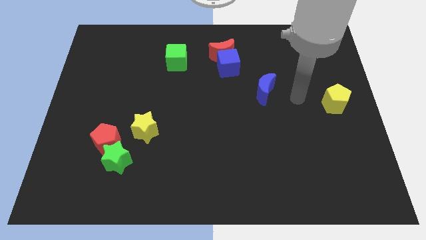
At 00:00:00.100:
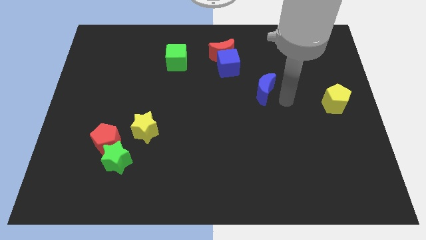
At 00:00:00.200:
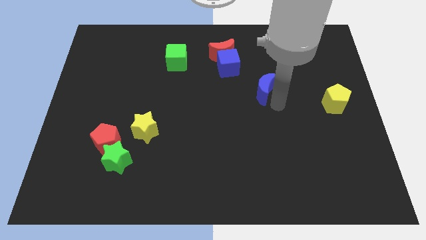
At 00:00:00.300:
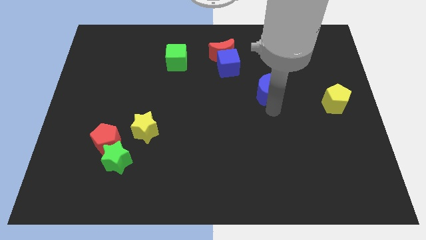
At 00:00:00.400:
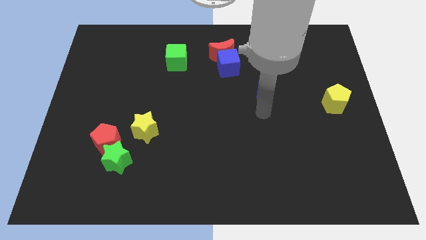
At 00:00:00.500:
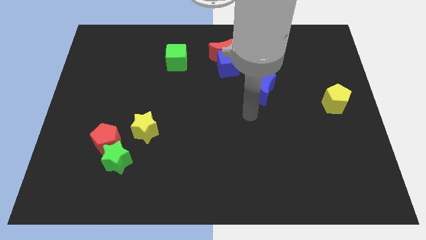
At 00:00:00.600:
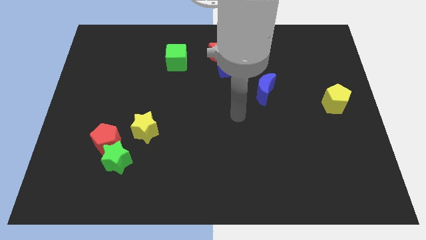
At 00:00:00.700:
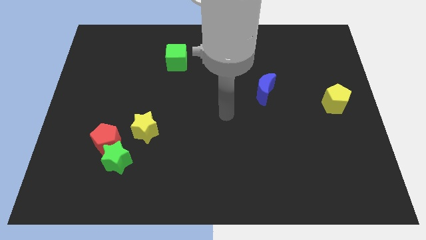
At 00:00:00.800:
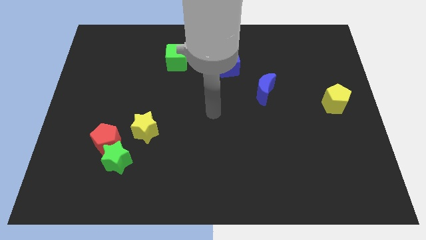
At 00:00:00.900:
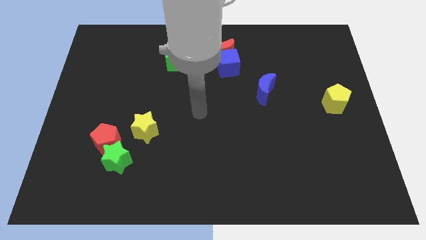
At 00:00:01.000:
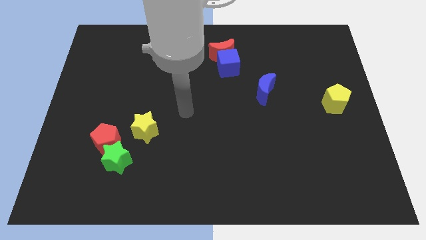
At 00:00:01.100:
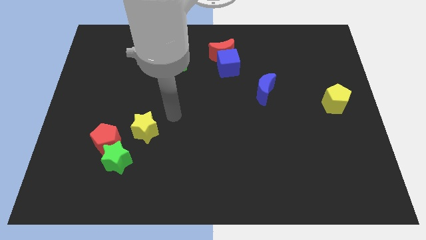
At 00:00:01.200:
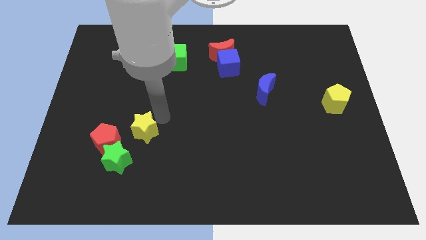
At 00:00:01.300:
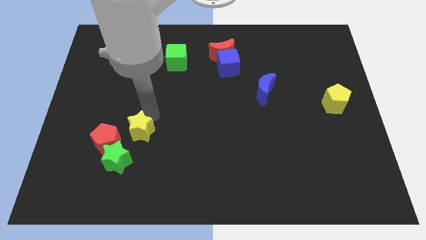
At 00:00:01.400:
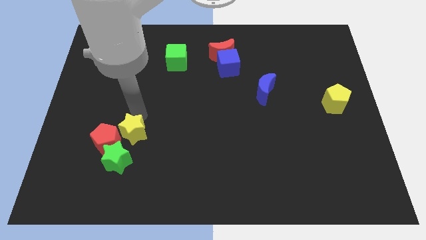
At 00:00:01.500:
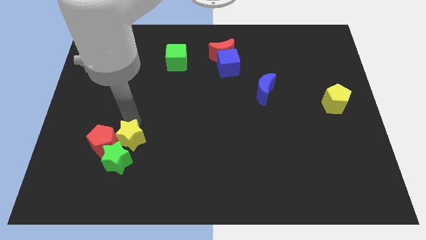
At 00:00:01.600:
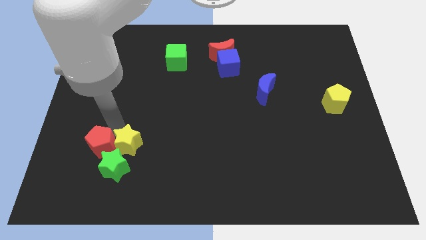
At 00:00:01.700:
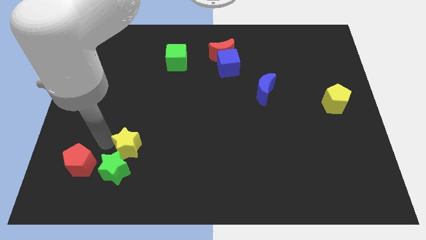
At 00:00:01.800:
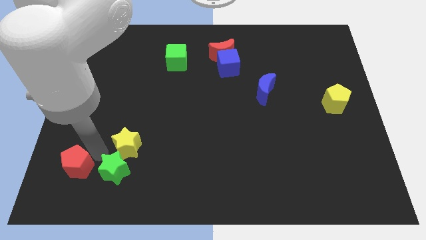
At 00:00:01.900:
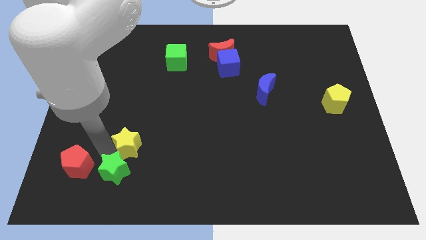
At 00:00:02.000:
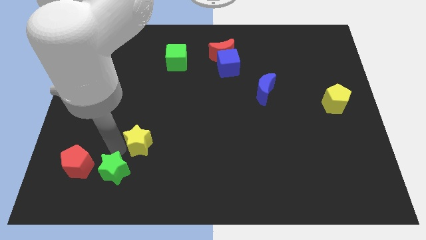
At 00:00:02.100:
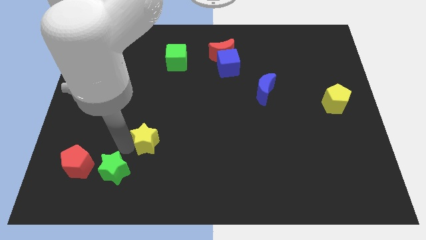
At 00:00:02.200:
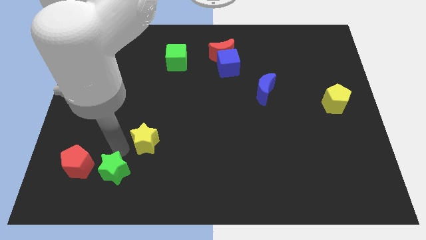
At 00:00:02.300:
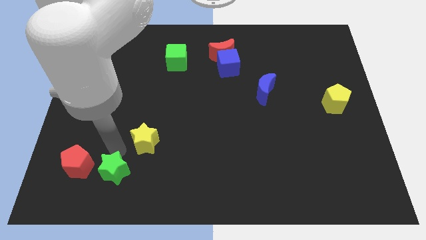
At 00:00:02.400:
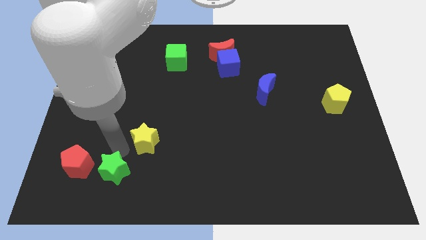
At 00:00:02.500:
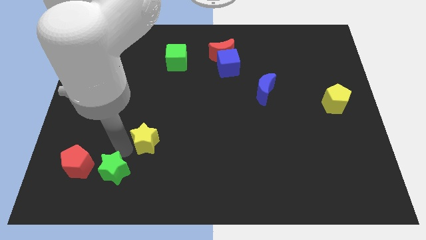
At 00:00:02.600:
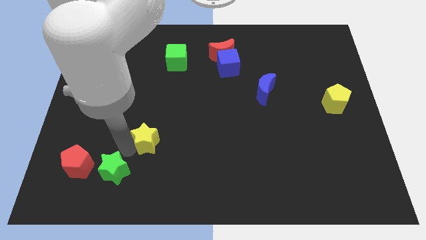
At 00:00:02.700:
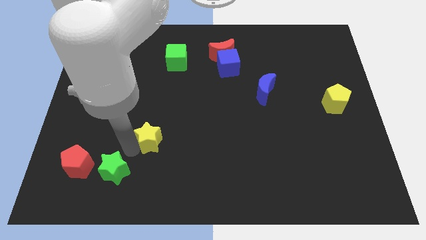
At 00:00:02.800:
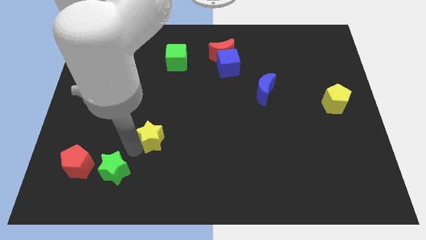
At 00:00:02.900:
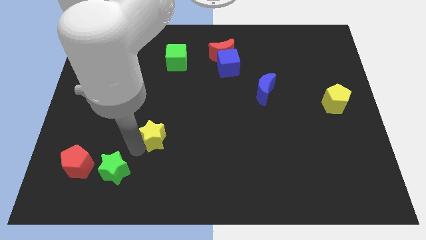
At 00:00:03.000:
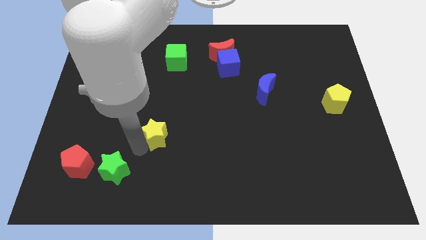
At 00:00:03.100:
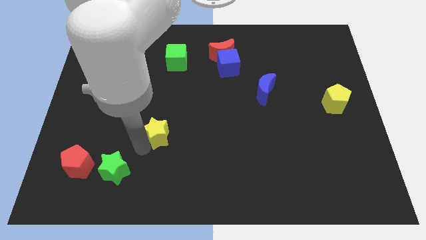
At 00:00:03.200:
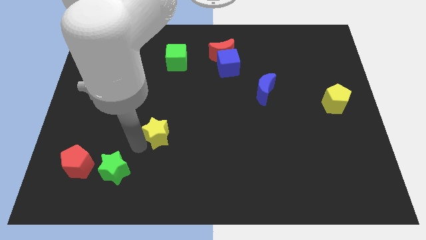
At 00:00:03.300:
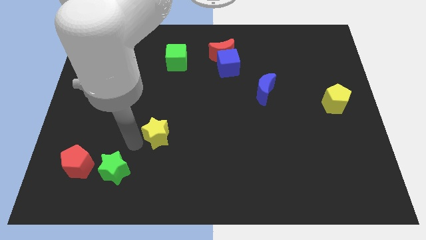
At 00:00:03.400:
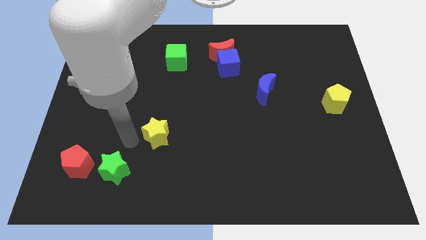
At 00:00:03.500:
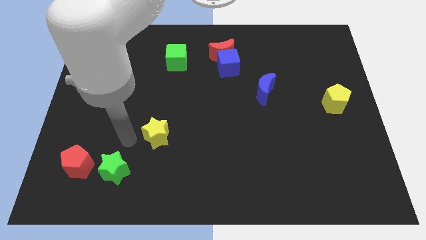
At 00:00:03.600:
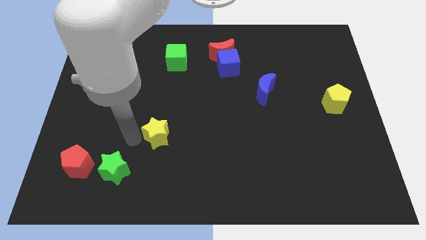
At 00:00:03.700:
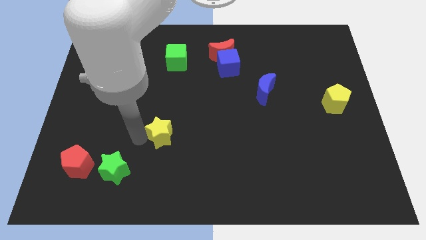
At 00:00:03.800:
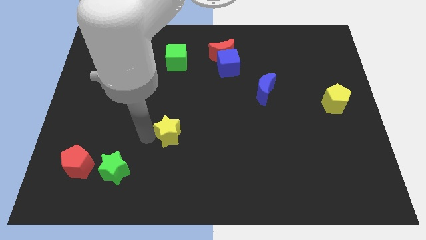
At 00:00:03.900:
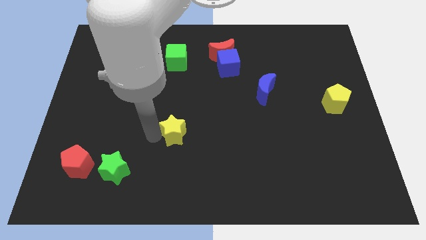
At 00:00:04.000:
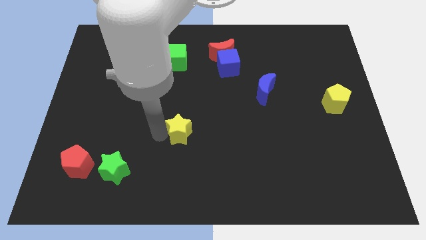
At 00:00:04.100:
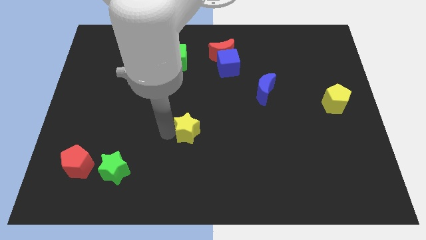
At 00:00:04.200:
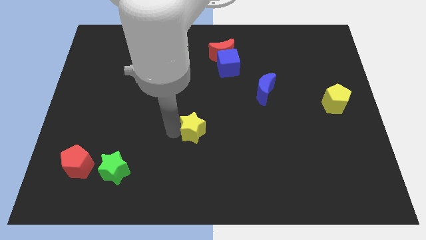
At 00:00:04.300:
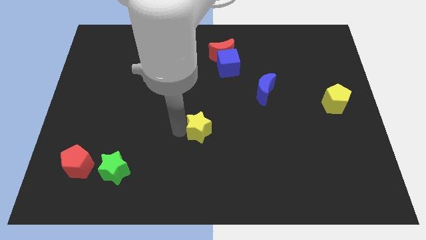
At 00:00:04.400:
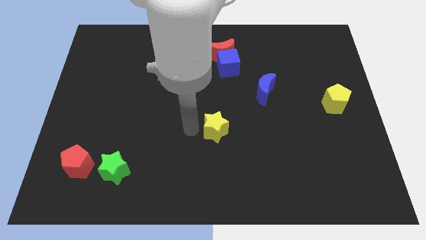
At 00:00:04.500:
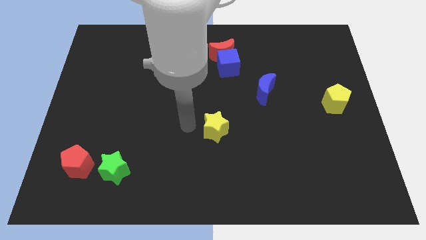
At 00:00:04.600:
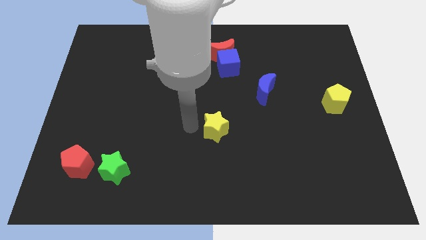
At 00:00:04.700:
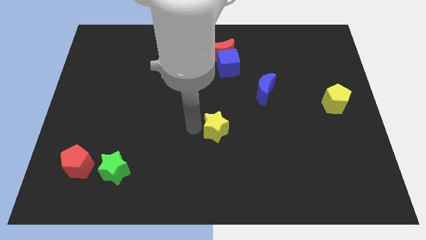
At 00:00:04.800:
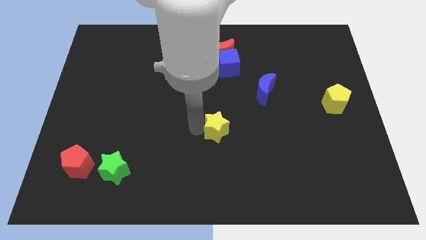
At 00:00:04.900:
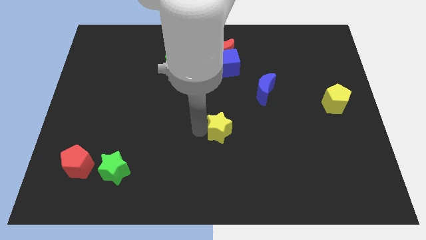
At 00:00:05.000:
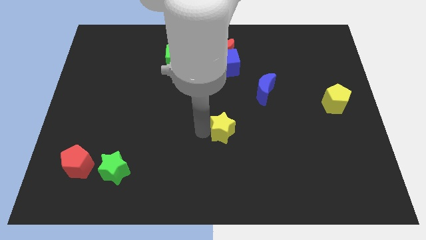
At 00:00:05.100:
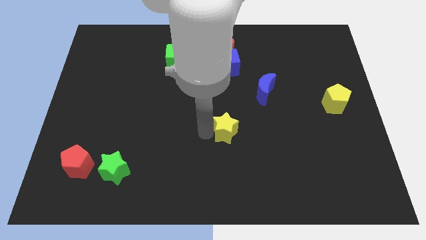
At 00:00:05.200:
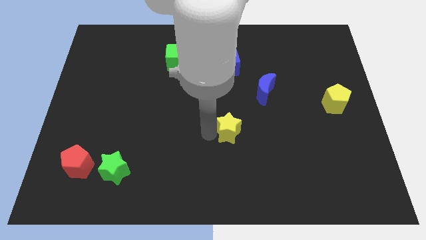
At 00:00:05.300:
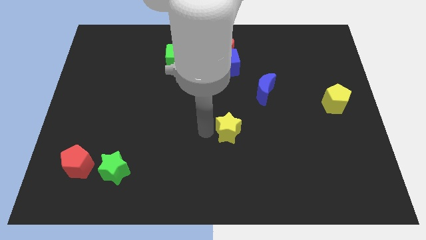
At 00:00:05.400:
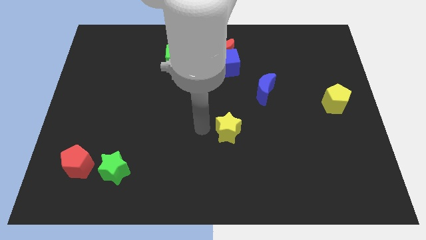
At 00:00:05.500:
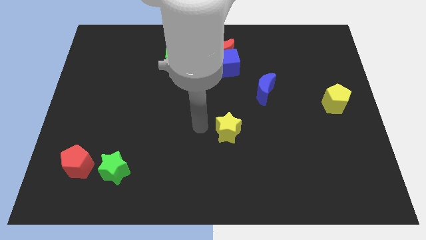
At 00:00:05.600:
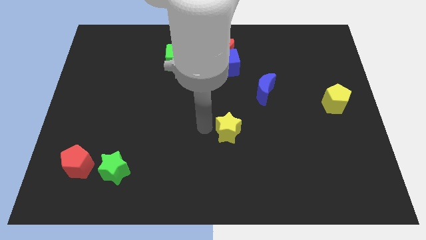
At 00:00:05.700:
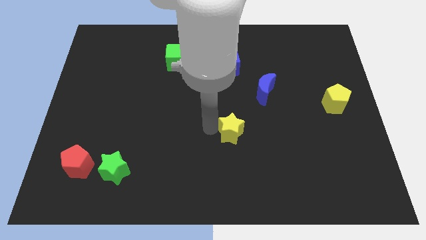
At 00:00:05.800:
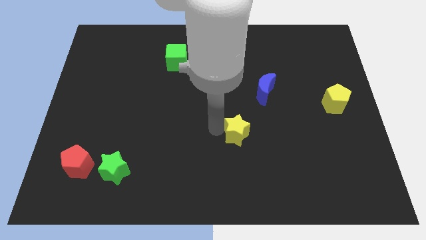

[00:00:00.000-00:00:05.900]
slide the yellow star to the right

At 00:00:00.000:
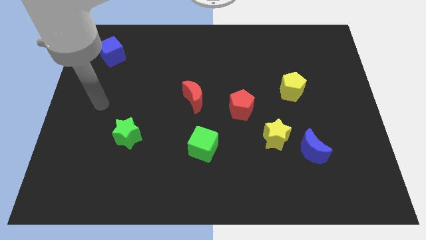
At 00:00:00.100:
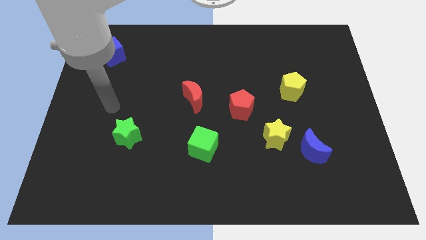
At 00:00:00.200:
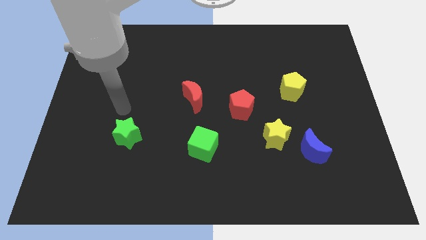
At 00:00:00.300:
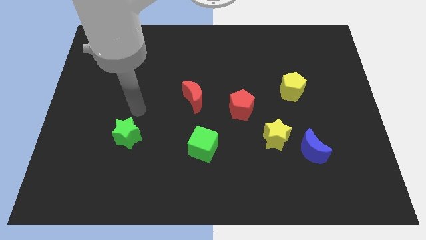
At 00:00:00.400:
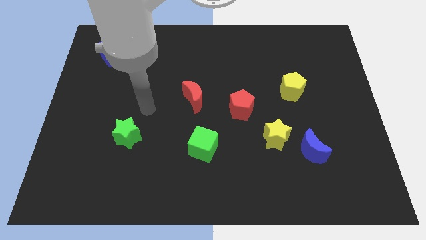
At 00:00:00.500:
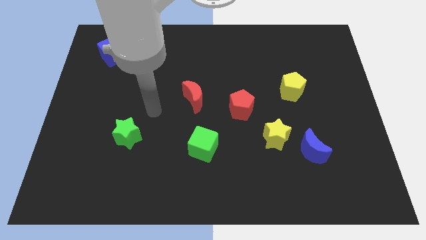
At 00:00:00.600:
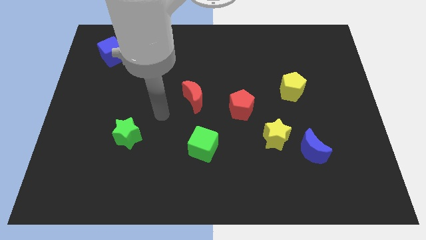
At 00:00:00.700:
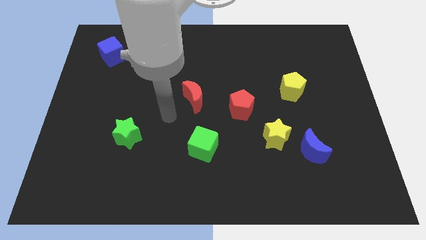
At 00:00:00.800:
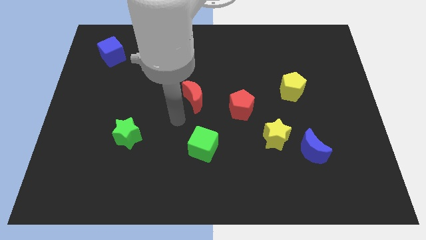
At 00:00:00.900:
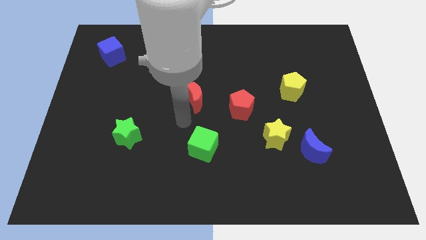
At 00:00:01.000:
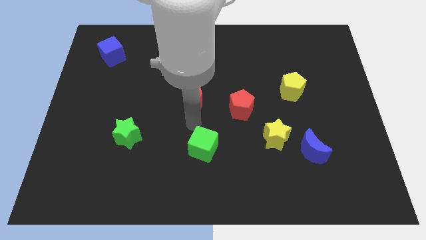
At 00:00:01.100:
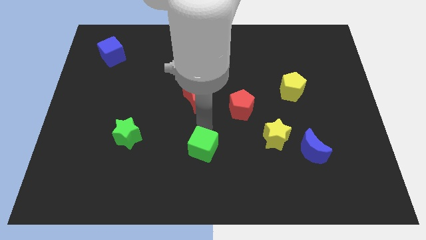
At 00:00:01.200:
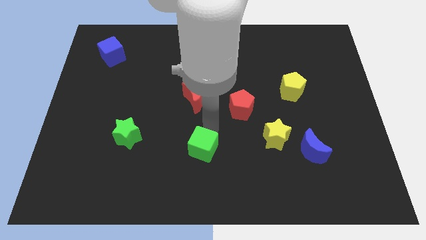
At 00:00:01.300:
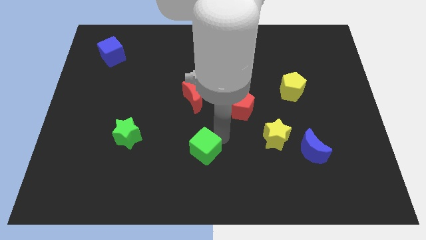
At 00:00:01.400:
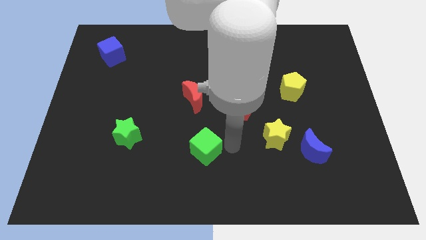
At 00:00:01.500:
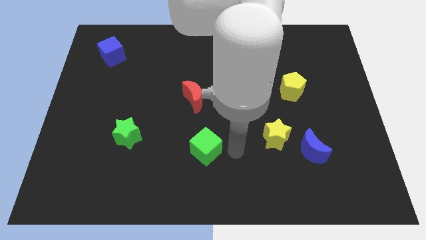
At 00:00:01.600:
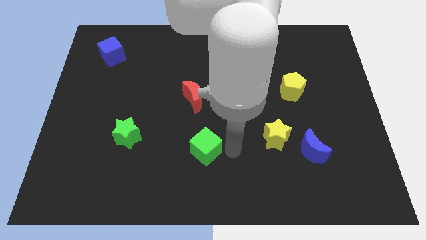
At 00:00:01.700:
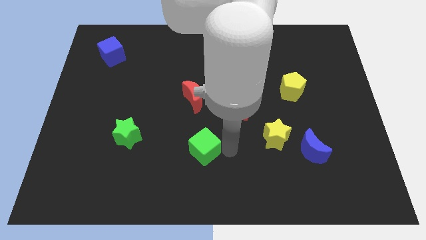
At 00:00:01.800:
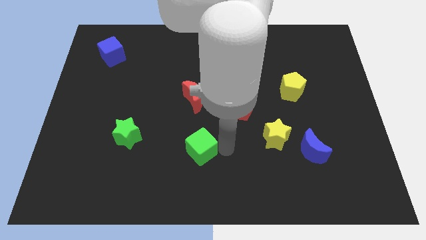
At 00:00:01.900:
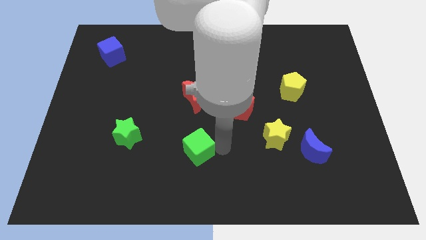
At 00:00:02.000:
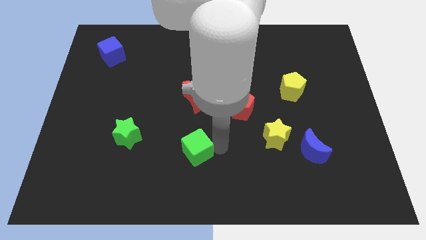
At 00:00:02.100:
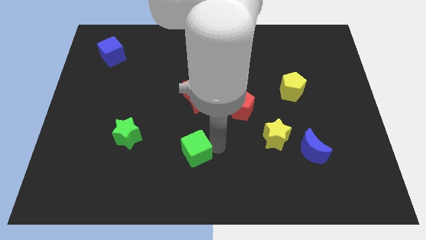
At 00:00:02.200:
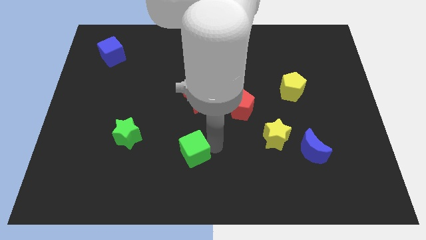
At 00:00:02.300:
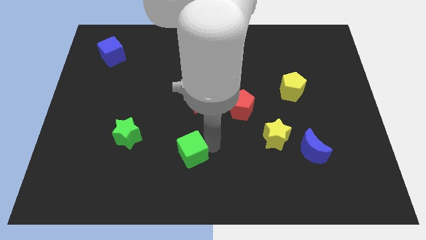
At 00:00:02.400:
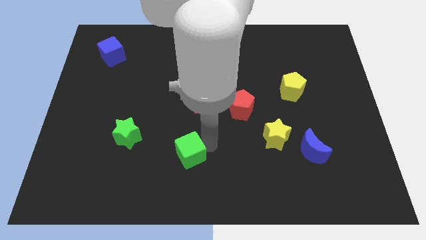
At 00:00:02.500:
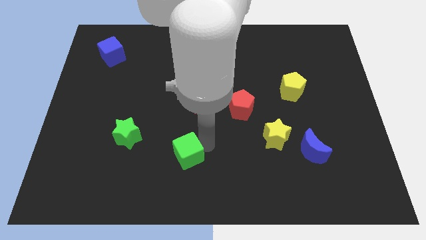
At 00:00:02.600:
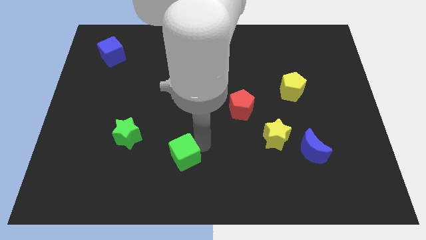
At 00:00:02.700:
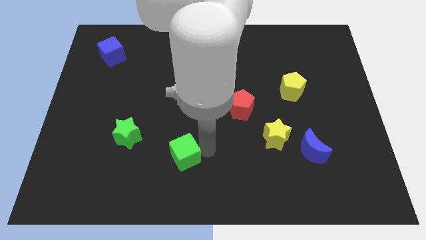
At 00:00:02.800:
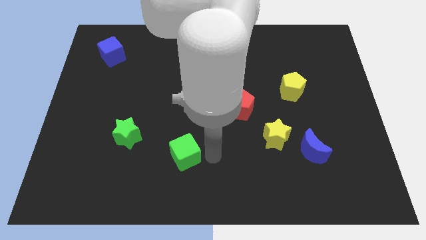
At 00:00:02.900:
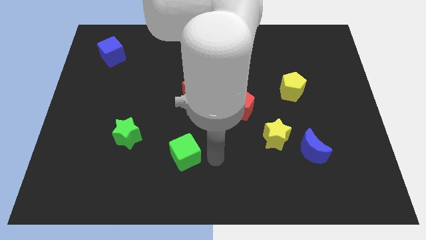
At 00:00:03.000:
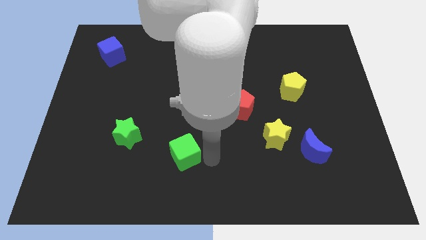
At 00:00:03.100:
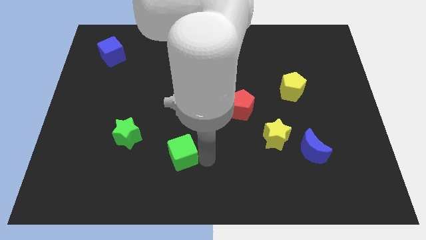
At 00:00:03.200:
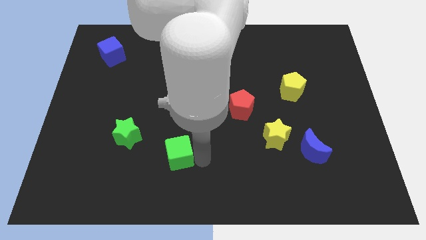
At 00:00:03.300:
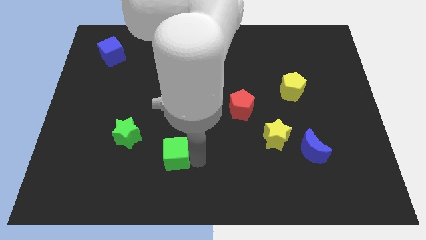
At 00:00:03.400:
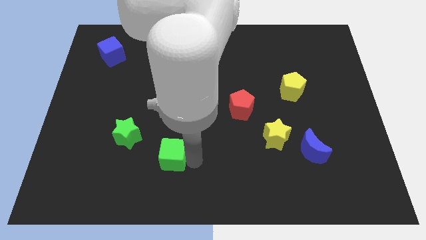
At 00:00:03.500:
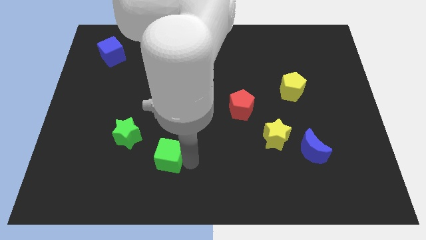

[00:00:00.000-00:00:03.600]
slightly move the green cube left
